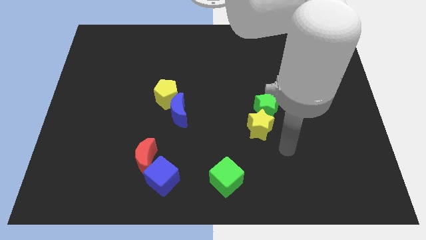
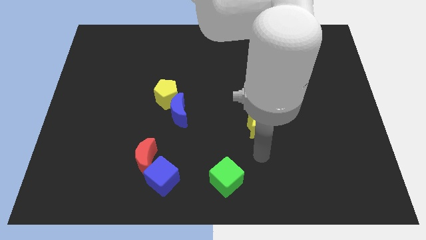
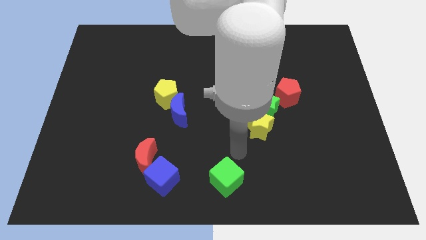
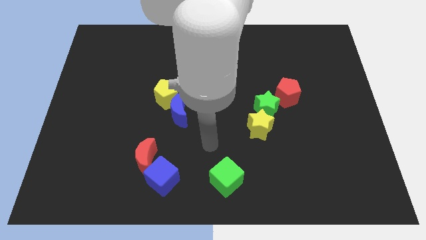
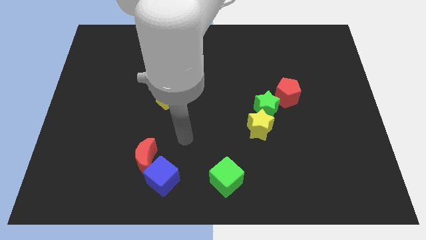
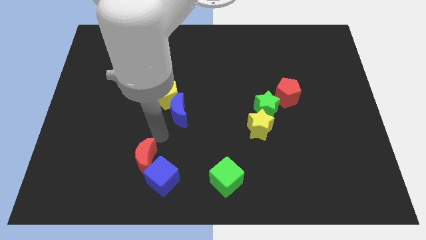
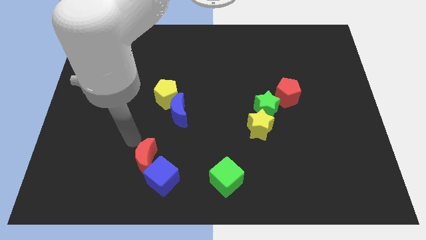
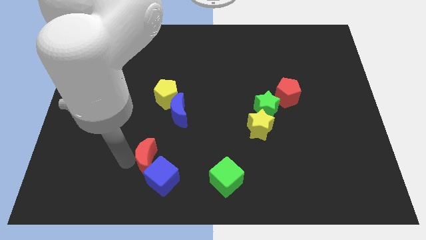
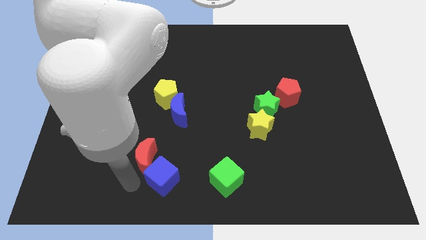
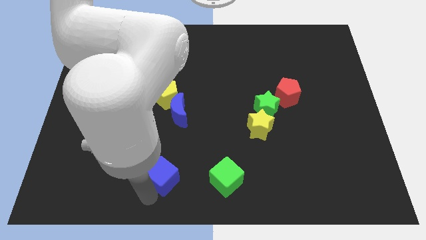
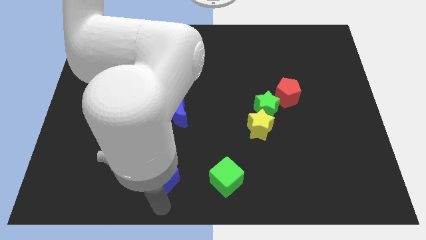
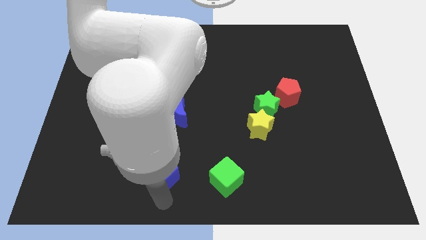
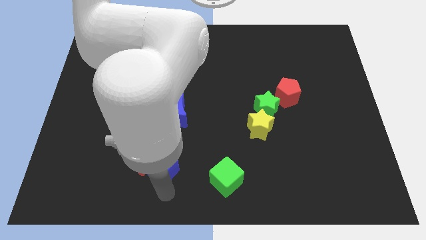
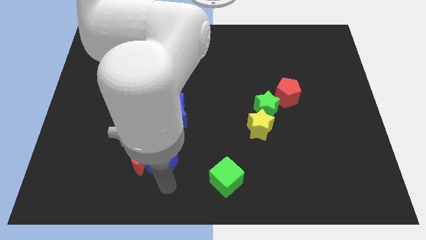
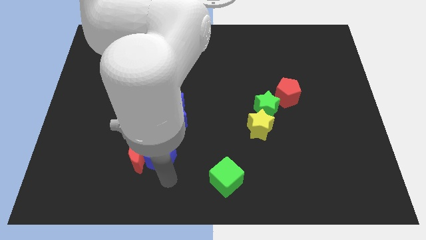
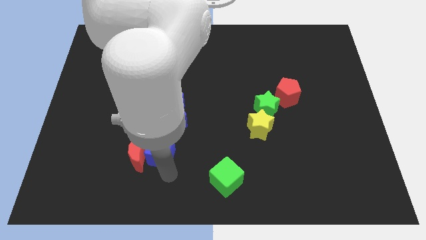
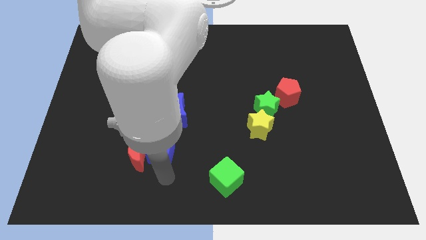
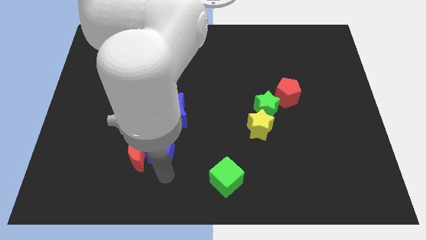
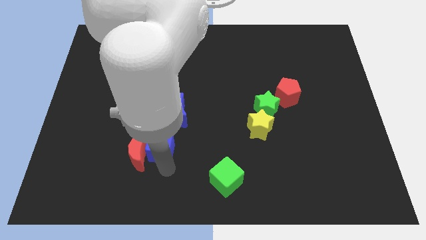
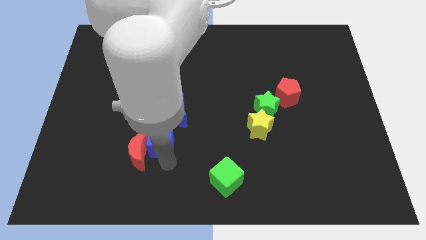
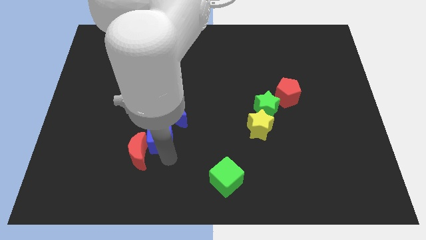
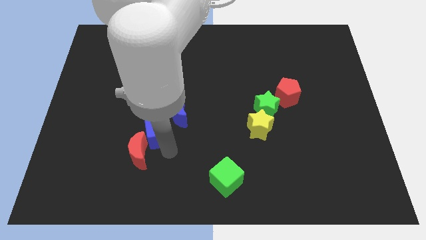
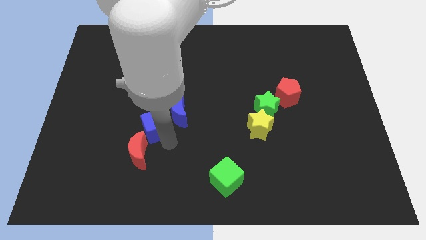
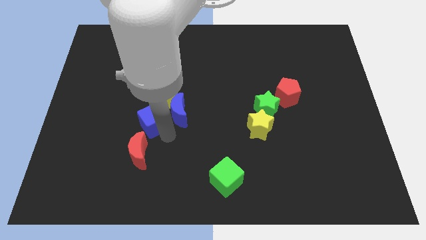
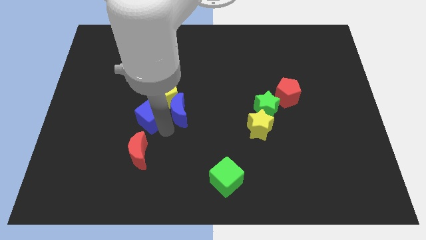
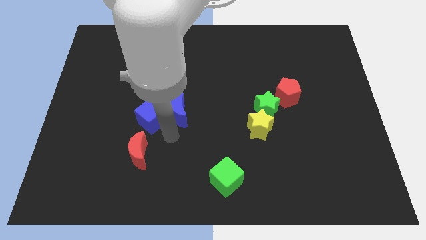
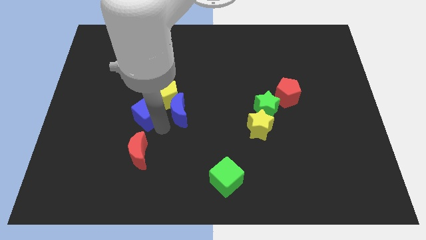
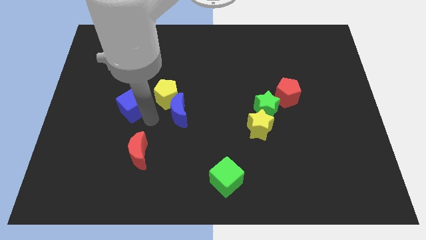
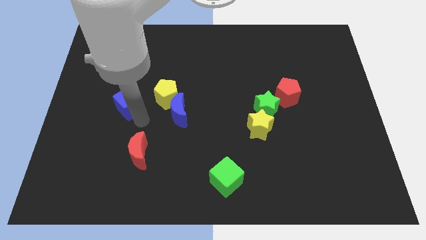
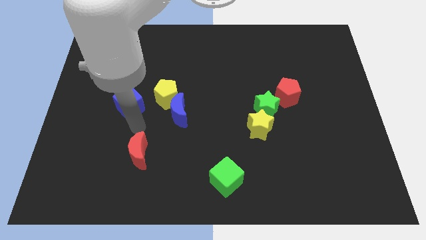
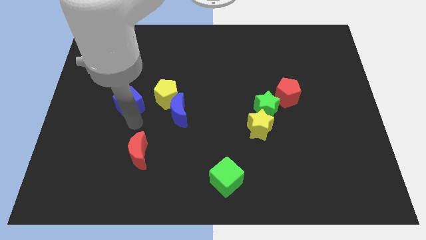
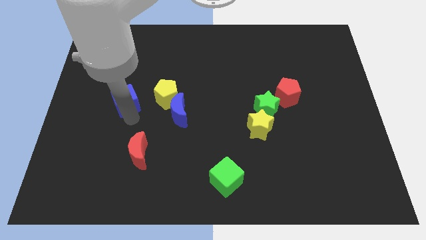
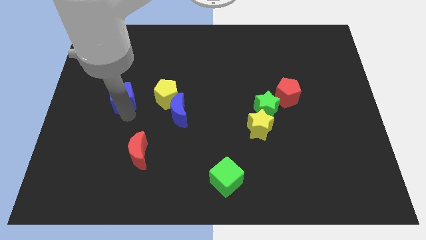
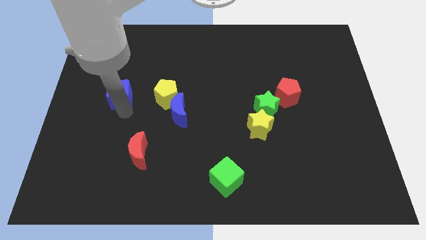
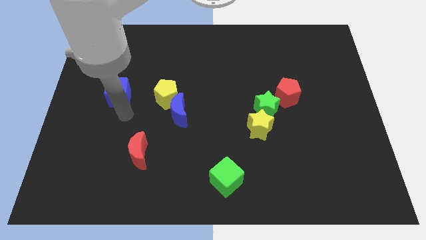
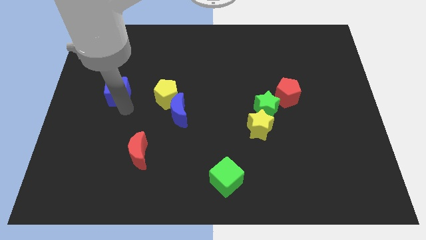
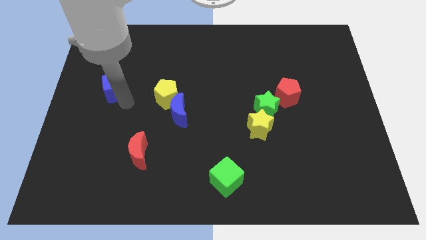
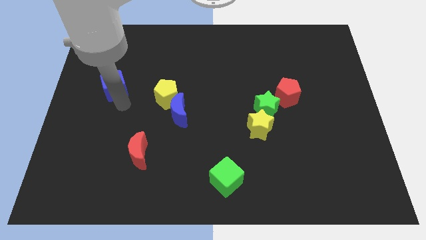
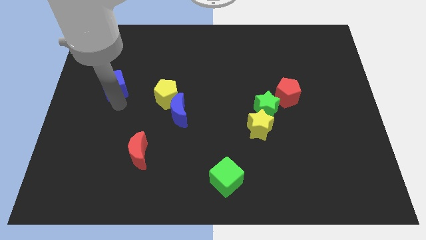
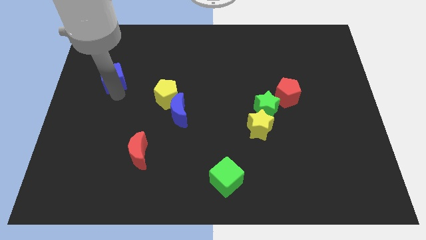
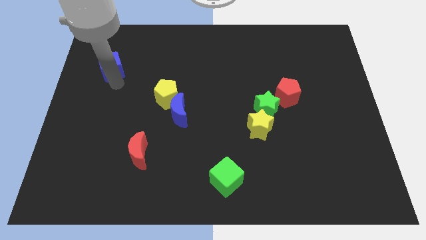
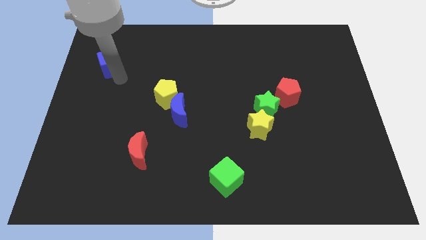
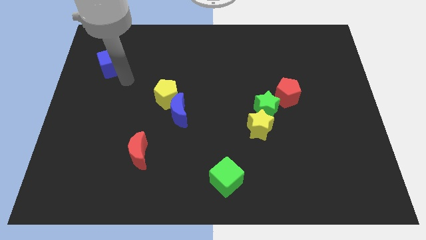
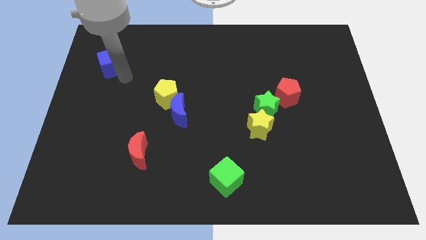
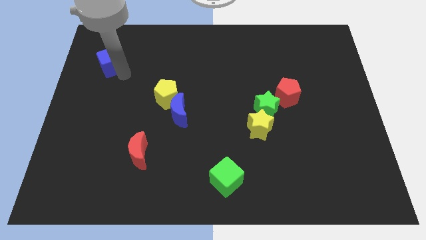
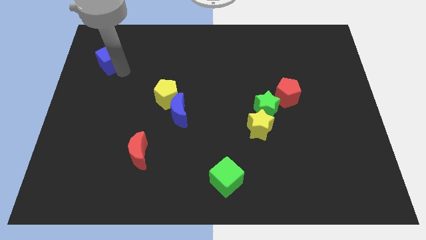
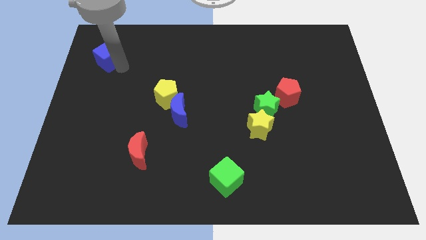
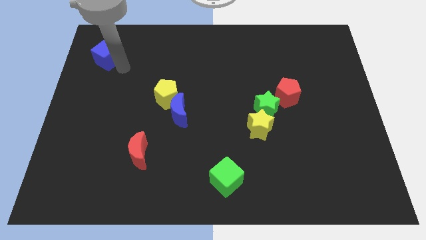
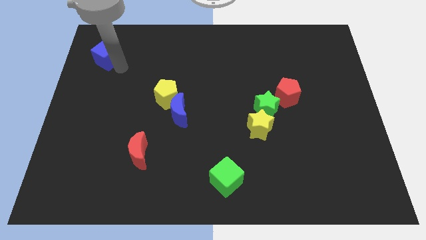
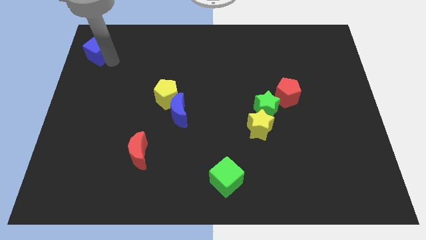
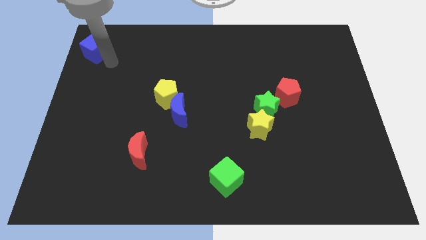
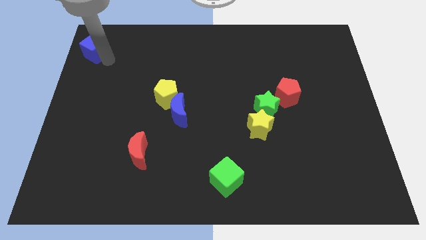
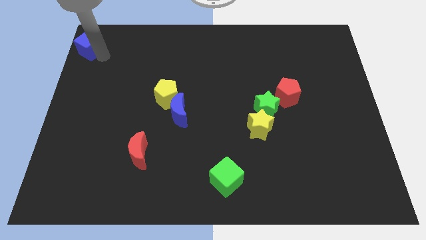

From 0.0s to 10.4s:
put the blue cube to the upper left corner
